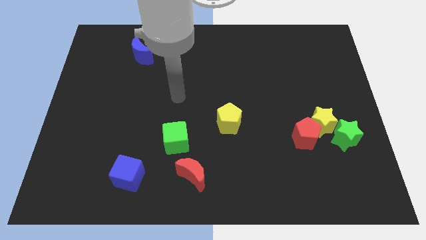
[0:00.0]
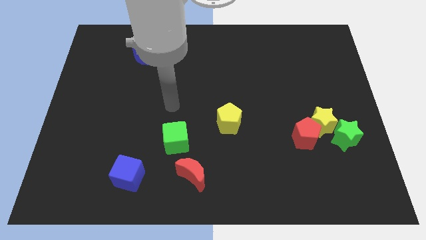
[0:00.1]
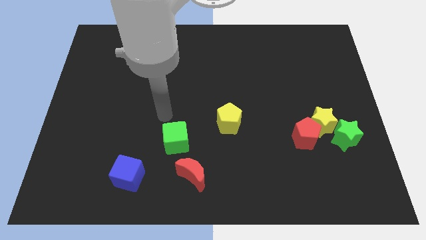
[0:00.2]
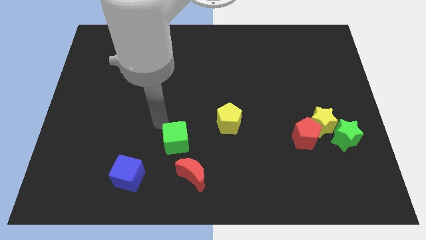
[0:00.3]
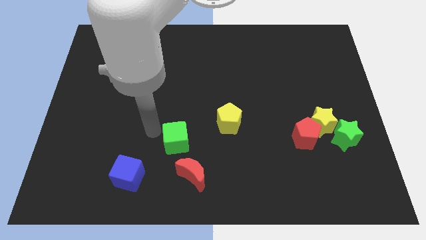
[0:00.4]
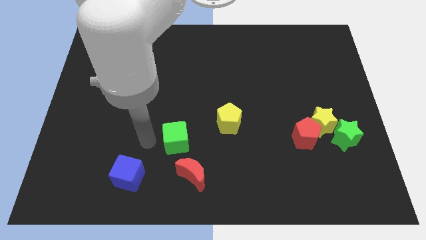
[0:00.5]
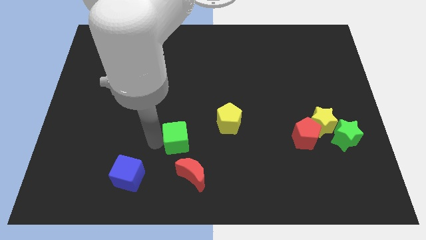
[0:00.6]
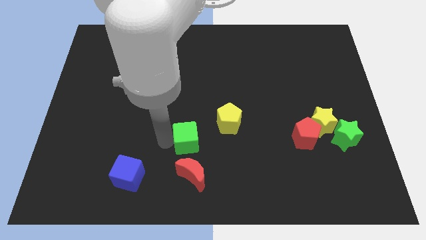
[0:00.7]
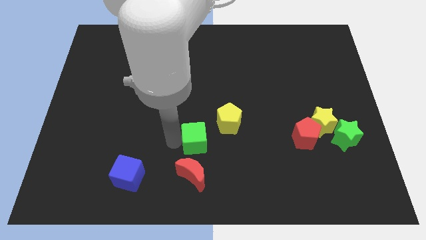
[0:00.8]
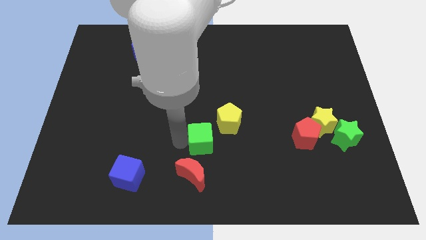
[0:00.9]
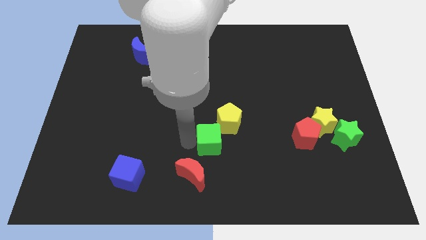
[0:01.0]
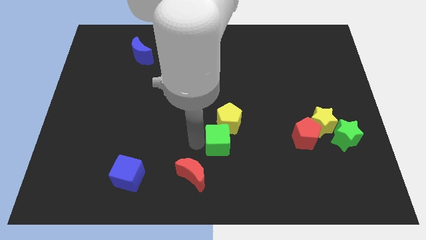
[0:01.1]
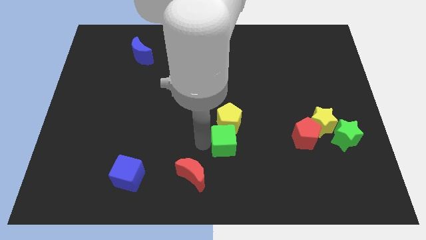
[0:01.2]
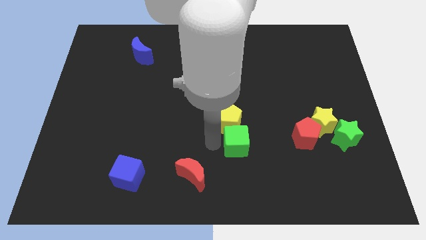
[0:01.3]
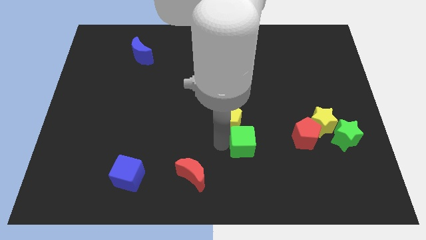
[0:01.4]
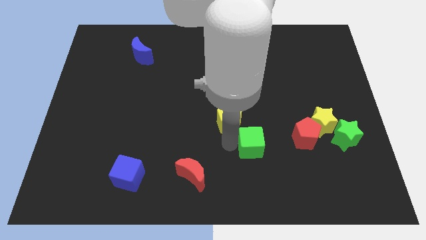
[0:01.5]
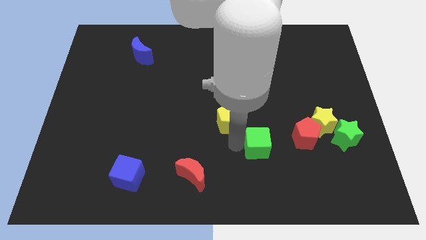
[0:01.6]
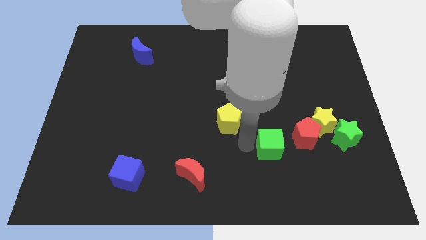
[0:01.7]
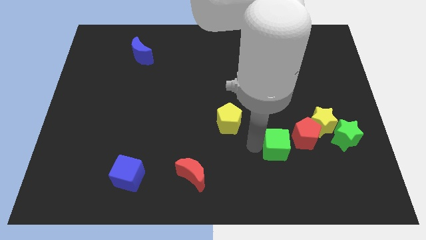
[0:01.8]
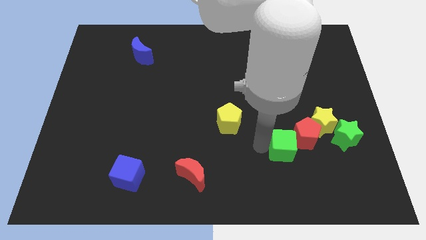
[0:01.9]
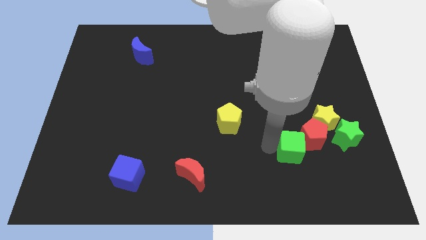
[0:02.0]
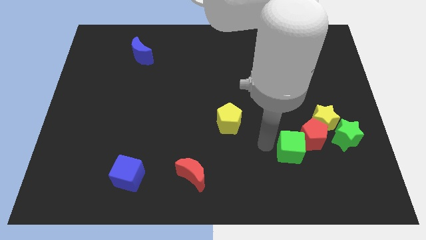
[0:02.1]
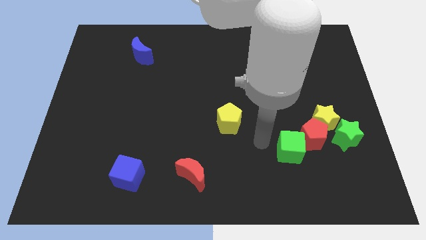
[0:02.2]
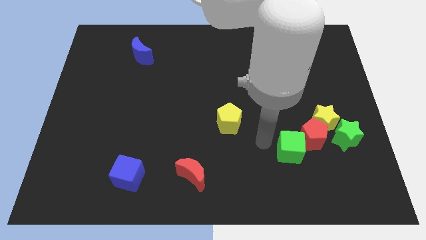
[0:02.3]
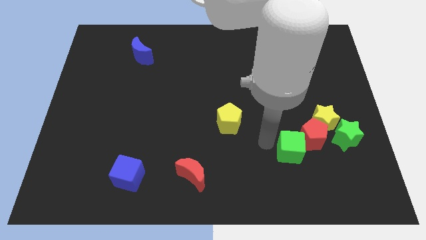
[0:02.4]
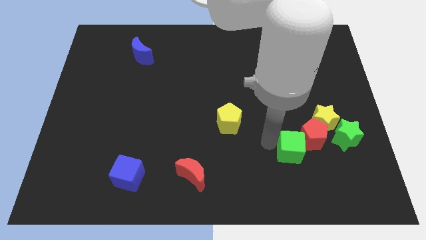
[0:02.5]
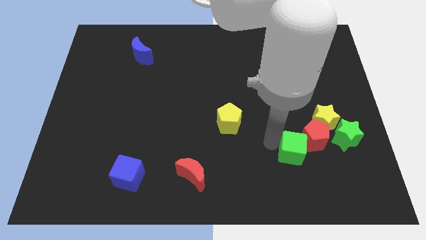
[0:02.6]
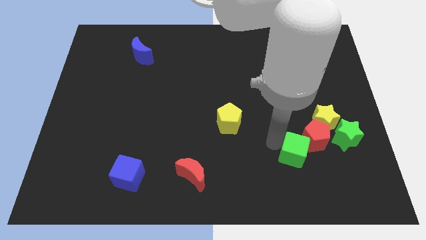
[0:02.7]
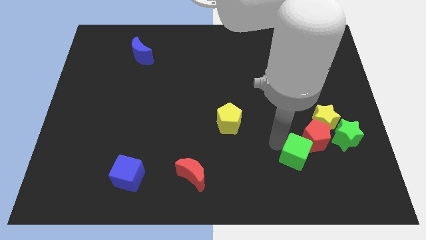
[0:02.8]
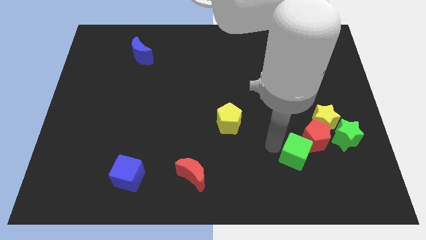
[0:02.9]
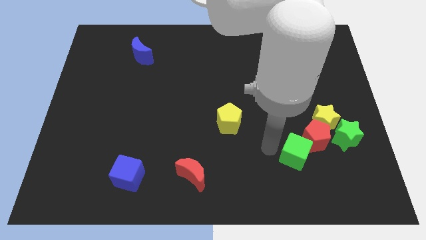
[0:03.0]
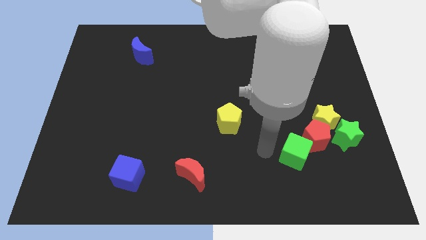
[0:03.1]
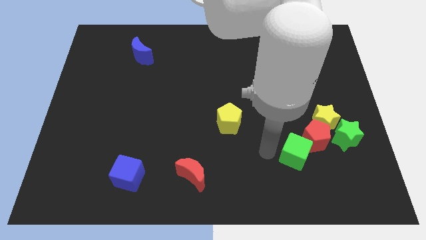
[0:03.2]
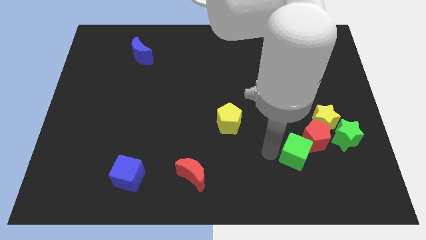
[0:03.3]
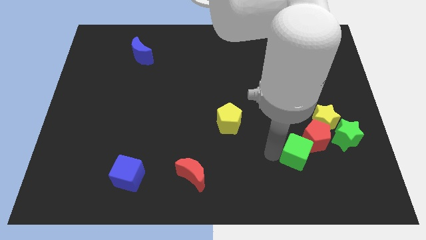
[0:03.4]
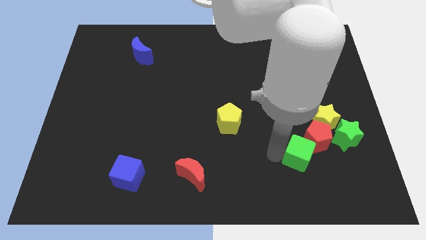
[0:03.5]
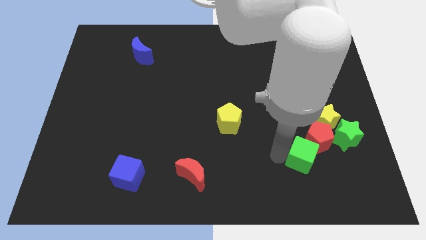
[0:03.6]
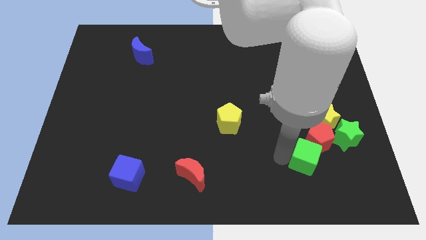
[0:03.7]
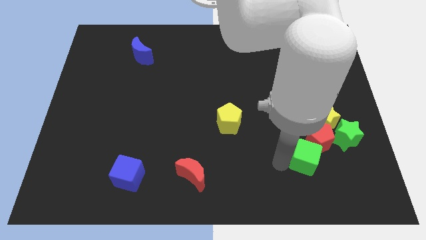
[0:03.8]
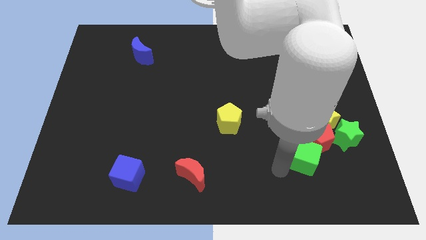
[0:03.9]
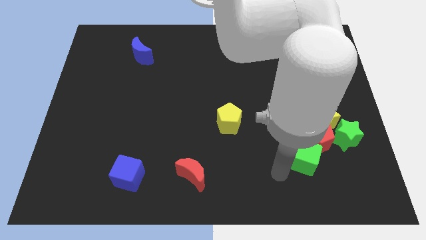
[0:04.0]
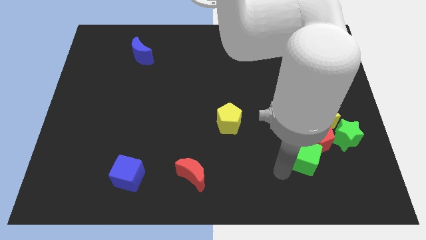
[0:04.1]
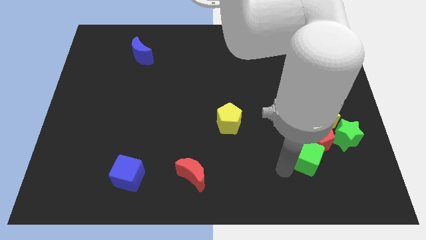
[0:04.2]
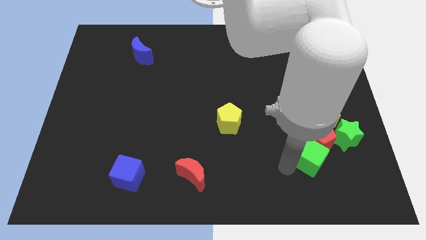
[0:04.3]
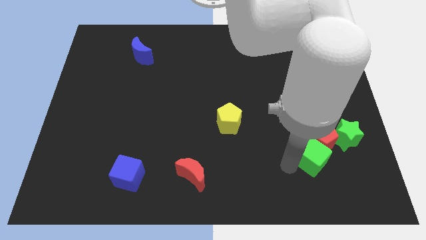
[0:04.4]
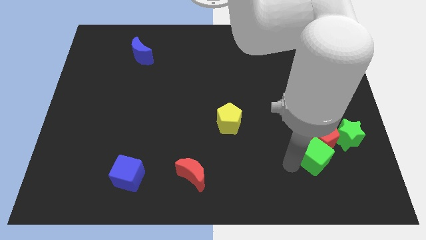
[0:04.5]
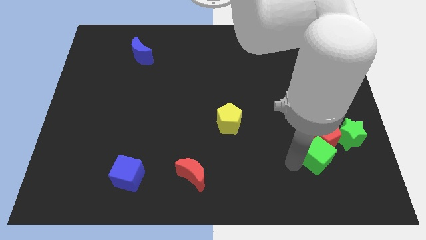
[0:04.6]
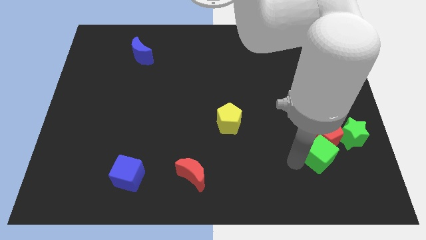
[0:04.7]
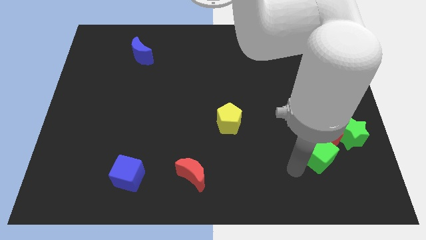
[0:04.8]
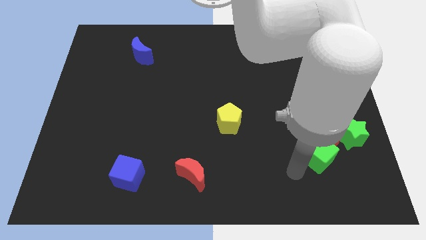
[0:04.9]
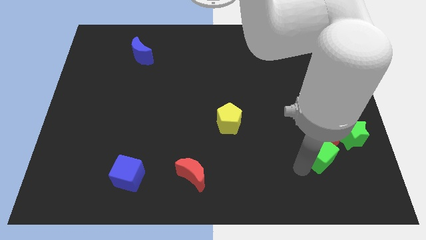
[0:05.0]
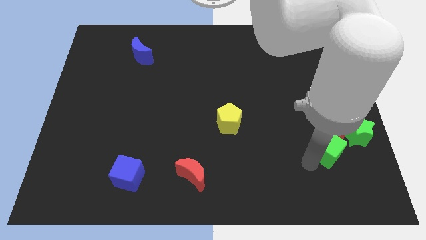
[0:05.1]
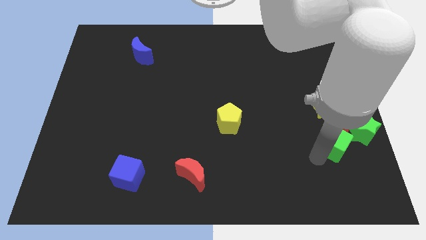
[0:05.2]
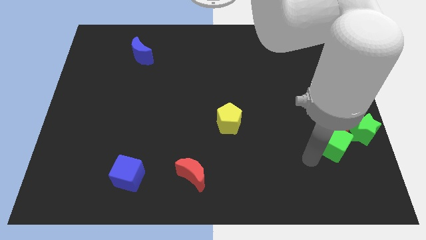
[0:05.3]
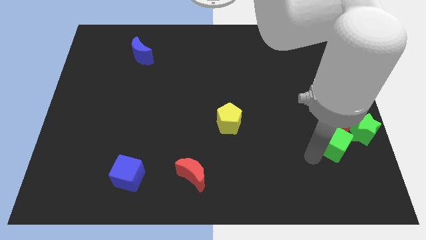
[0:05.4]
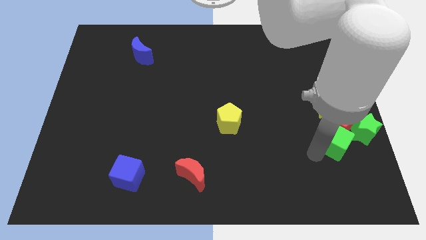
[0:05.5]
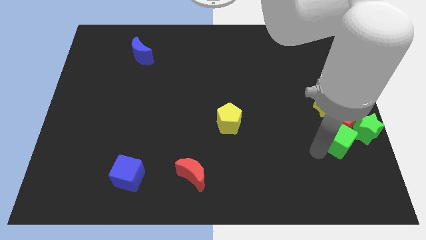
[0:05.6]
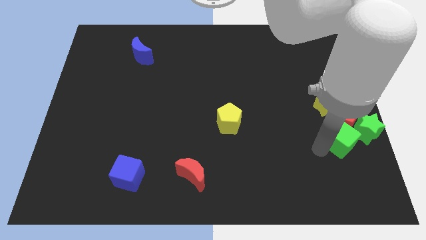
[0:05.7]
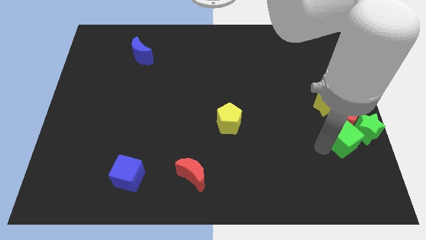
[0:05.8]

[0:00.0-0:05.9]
put the green cube next to the green star
